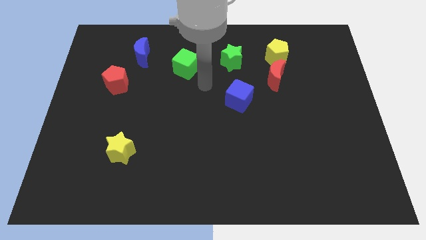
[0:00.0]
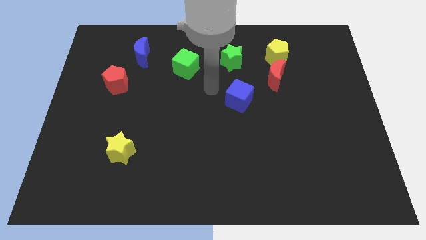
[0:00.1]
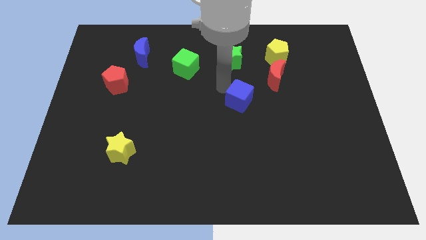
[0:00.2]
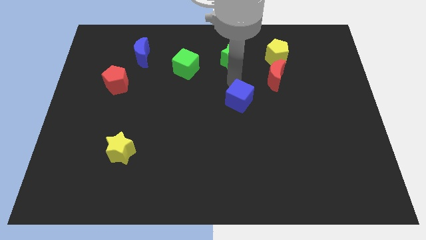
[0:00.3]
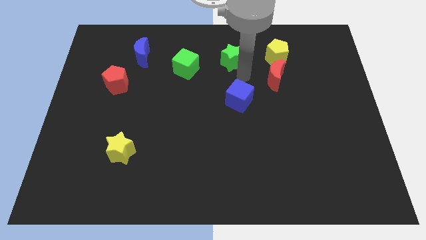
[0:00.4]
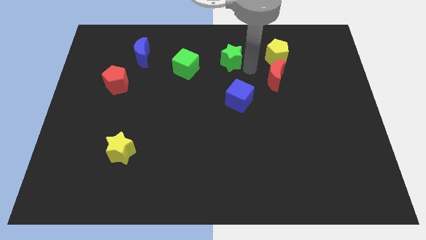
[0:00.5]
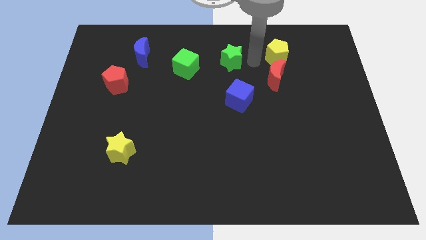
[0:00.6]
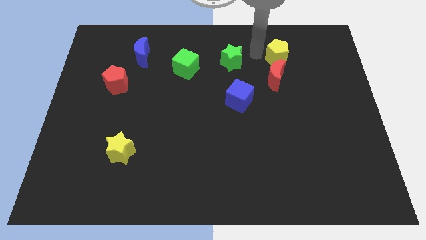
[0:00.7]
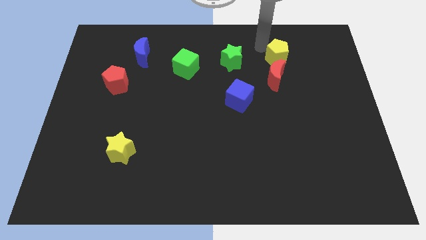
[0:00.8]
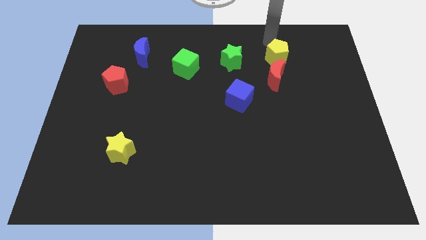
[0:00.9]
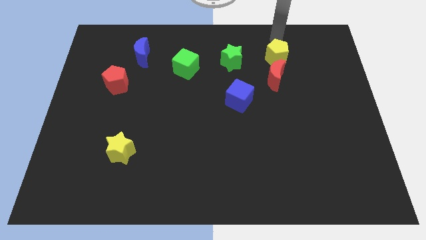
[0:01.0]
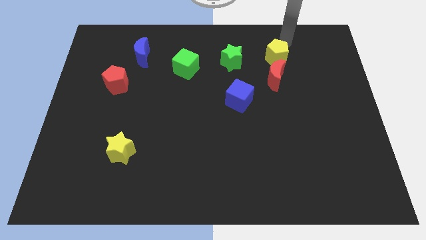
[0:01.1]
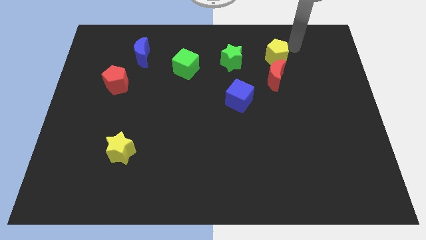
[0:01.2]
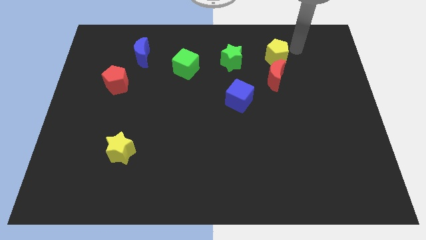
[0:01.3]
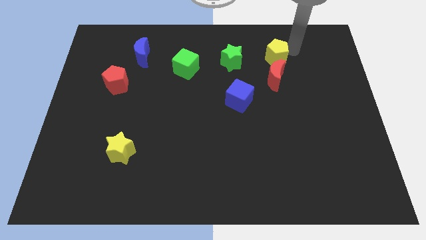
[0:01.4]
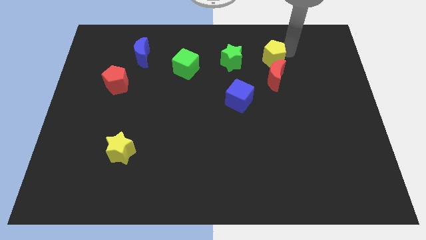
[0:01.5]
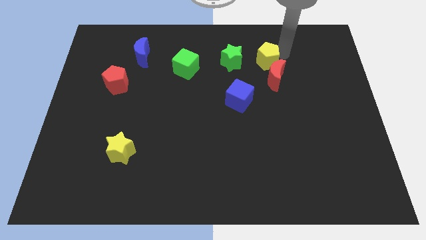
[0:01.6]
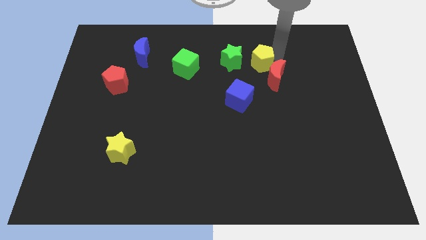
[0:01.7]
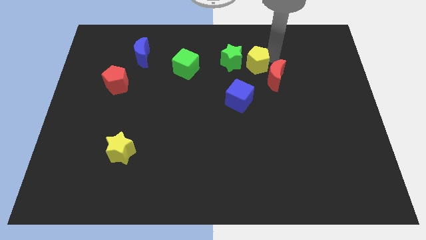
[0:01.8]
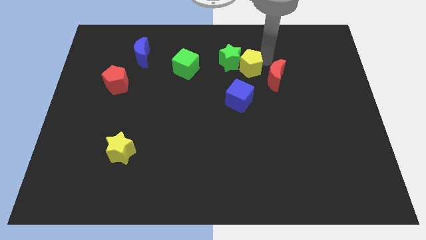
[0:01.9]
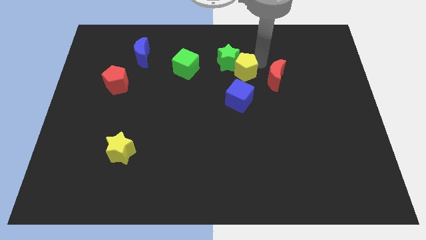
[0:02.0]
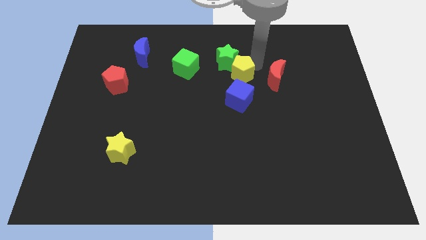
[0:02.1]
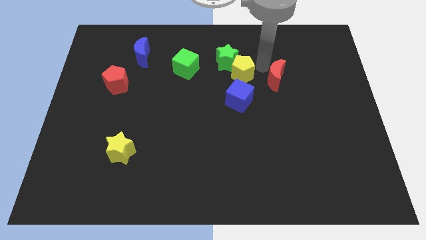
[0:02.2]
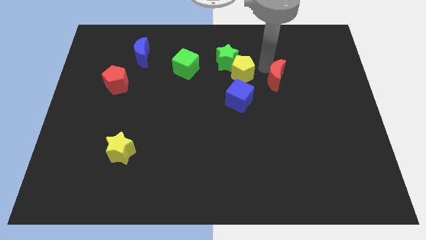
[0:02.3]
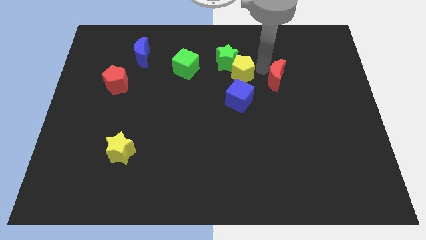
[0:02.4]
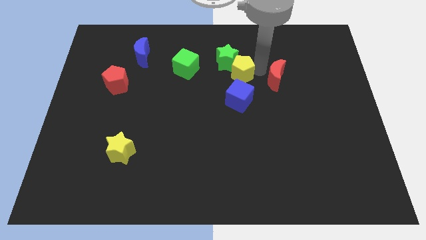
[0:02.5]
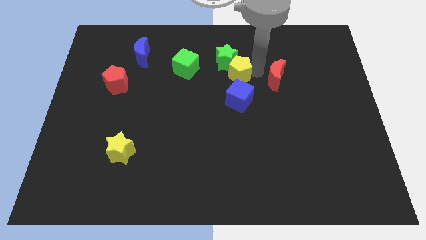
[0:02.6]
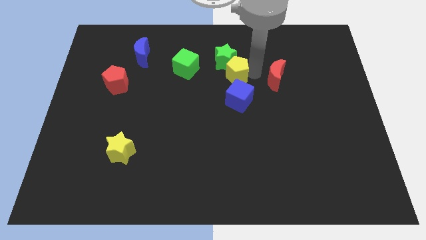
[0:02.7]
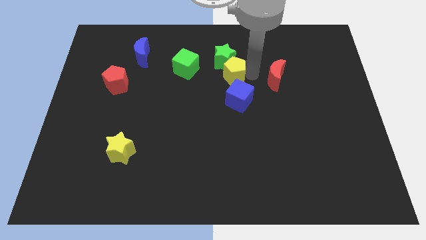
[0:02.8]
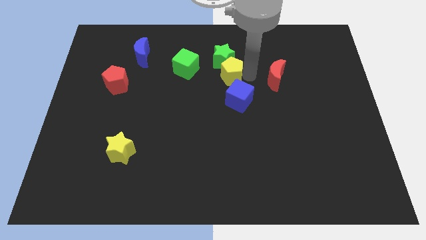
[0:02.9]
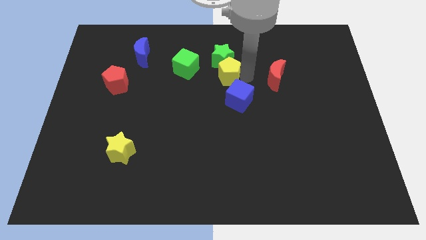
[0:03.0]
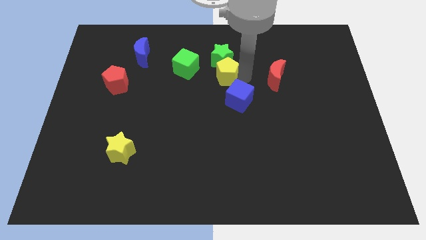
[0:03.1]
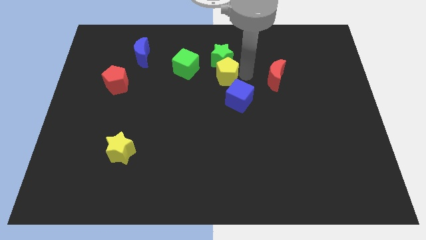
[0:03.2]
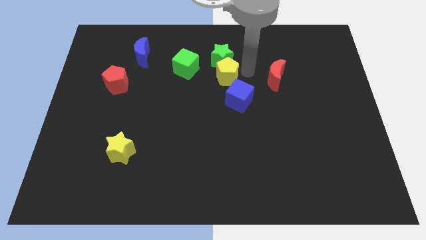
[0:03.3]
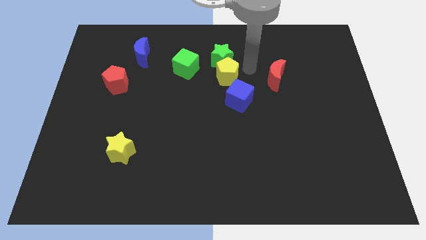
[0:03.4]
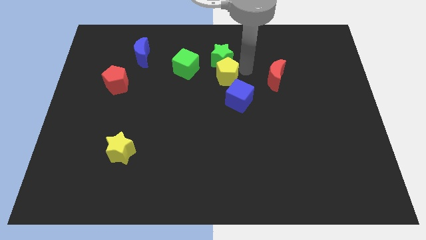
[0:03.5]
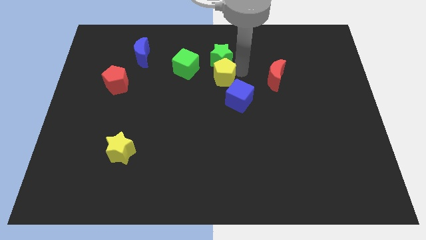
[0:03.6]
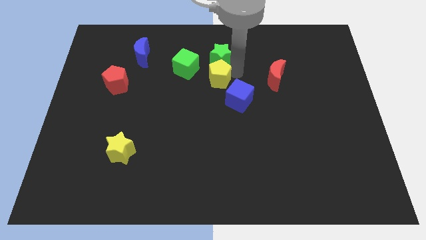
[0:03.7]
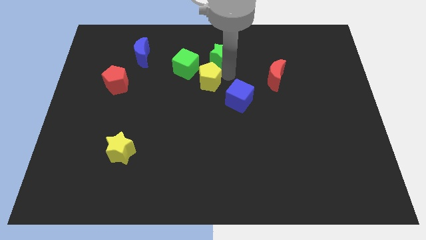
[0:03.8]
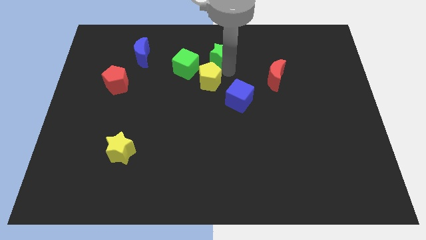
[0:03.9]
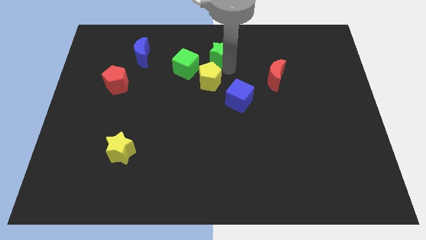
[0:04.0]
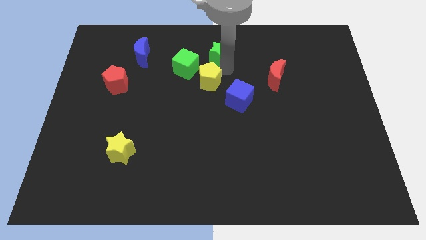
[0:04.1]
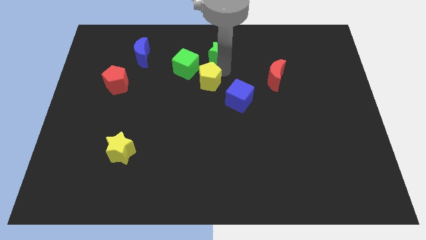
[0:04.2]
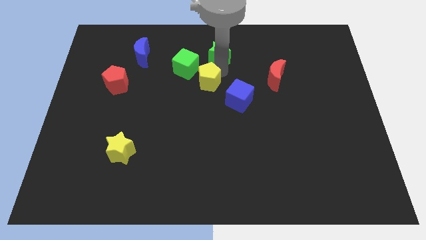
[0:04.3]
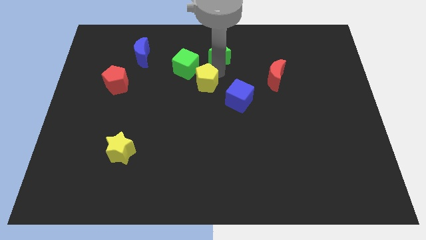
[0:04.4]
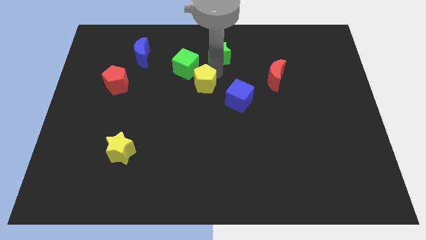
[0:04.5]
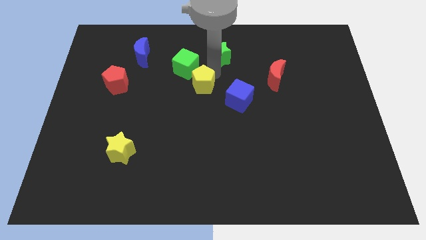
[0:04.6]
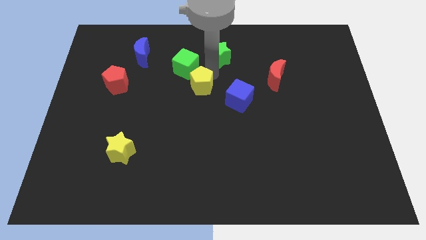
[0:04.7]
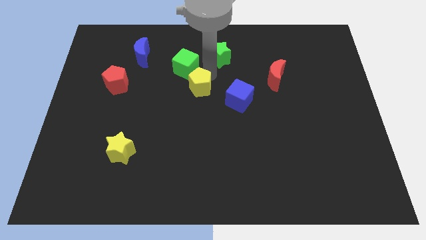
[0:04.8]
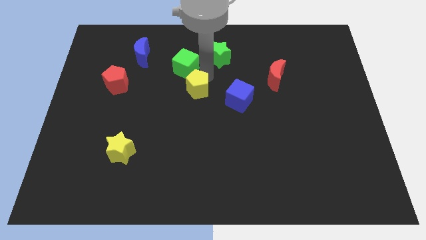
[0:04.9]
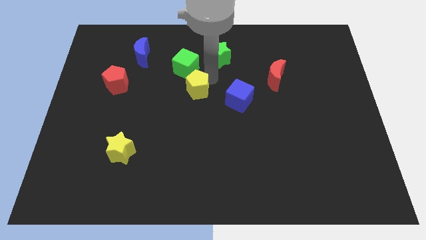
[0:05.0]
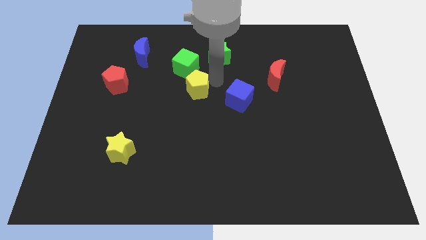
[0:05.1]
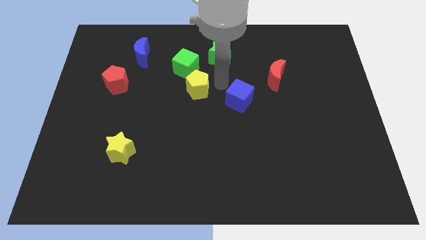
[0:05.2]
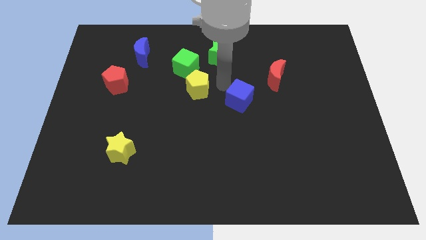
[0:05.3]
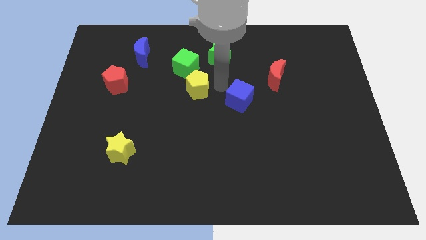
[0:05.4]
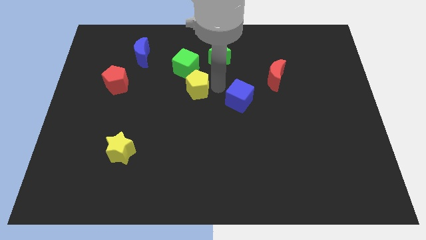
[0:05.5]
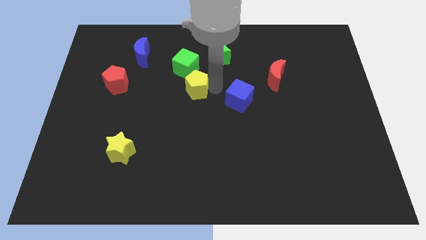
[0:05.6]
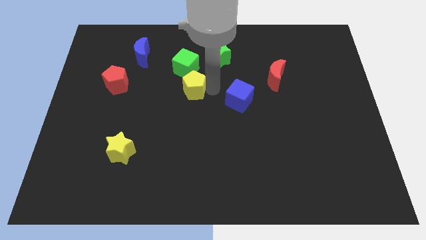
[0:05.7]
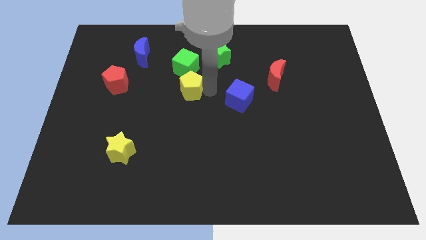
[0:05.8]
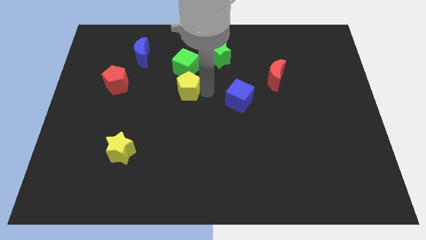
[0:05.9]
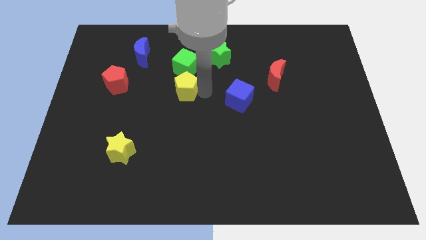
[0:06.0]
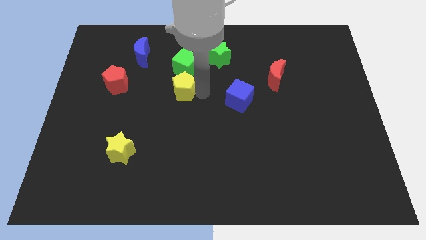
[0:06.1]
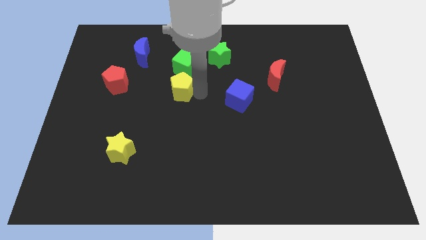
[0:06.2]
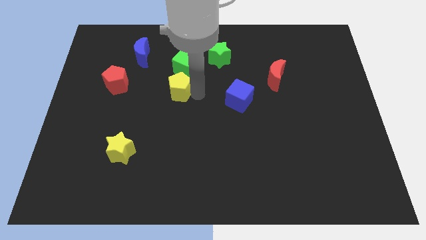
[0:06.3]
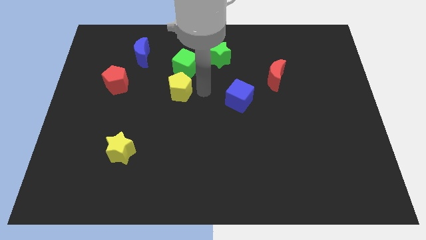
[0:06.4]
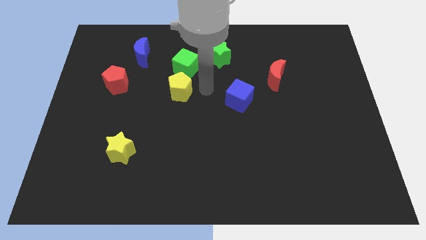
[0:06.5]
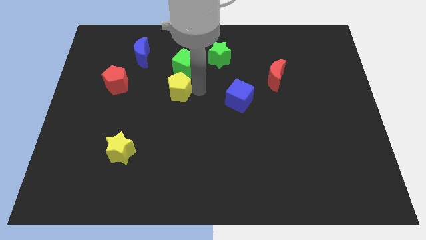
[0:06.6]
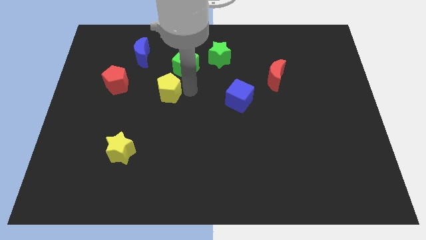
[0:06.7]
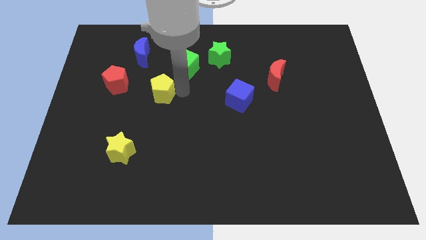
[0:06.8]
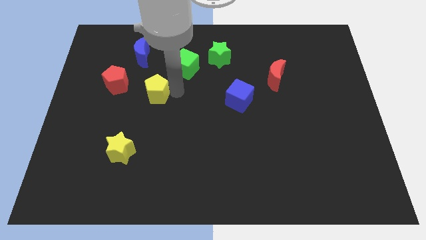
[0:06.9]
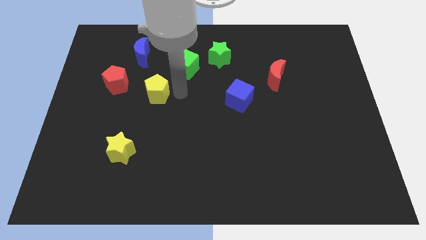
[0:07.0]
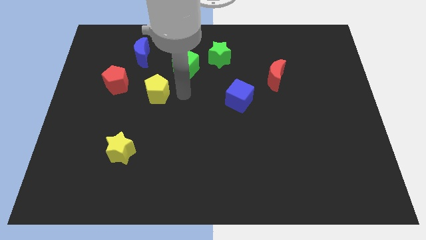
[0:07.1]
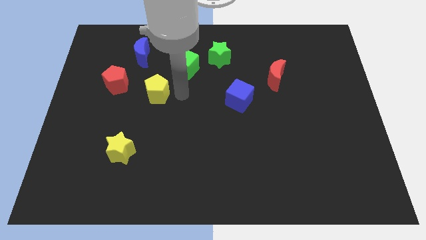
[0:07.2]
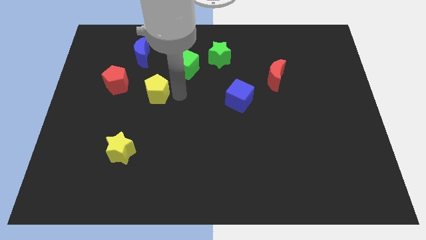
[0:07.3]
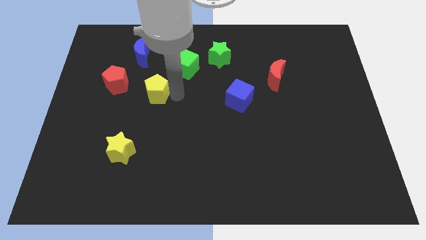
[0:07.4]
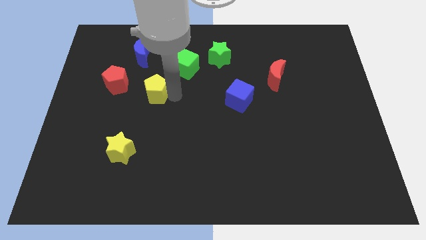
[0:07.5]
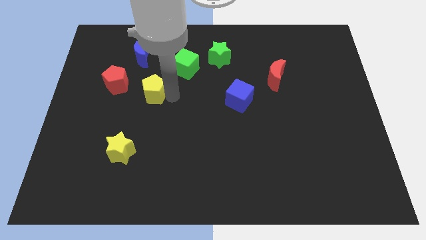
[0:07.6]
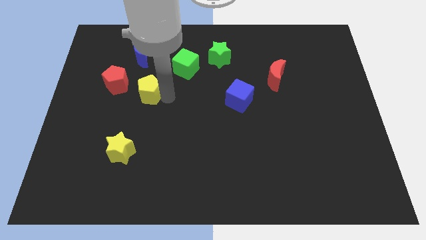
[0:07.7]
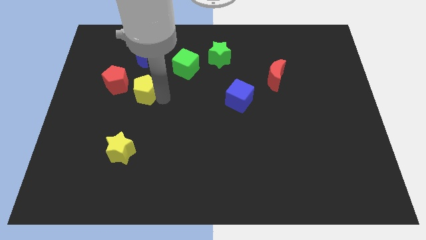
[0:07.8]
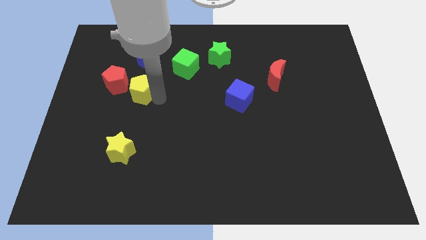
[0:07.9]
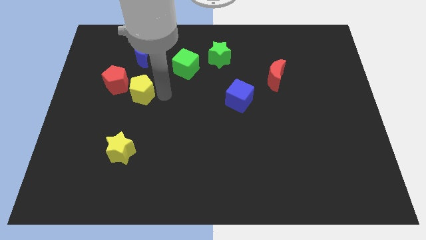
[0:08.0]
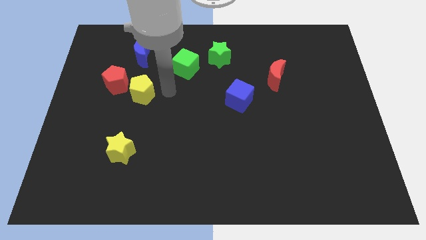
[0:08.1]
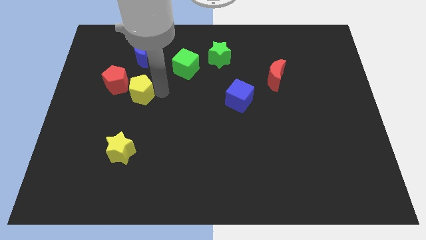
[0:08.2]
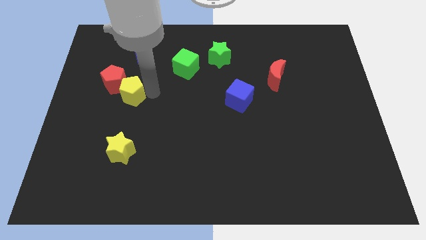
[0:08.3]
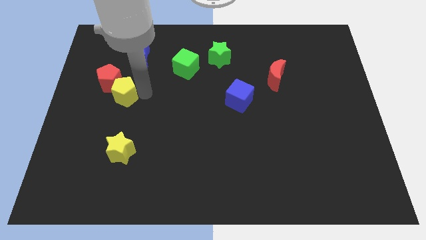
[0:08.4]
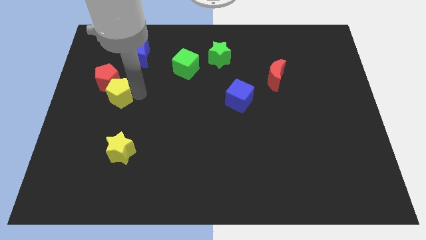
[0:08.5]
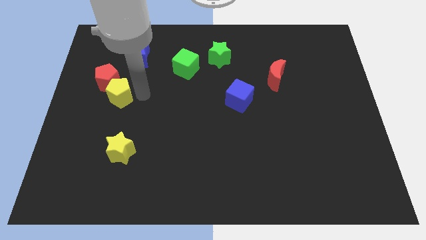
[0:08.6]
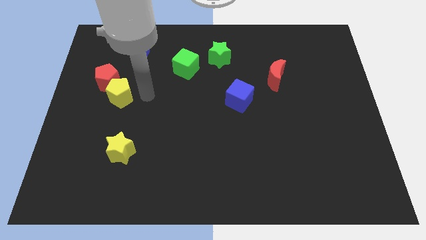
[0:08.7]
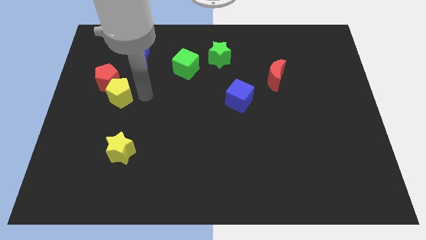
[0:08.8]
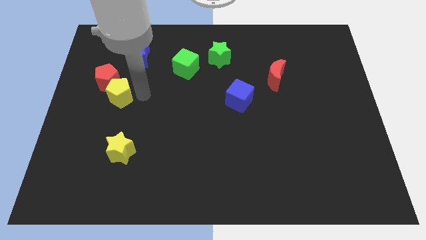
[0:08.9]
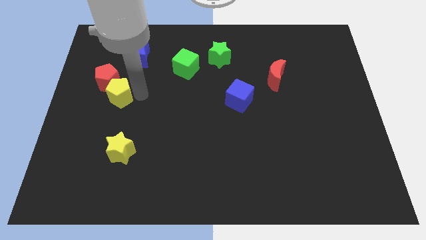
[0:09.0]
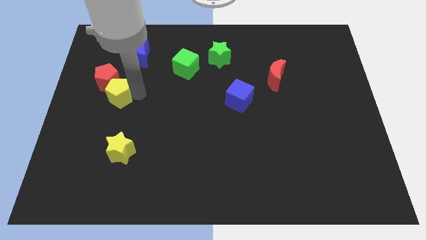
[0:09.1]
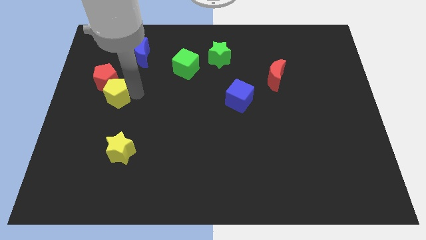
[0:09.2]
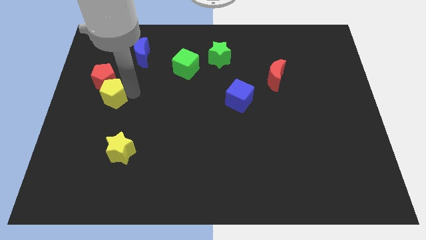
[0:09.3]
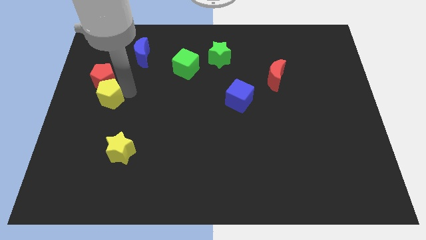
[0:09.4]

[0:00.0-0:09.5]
slide the yellow pentagon to the left side
